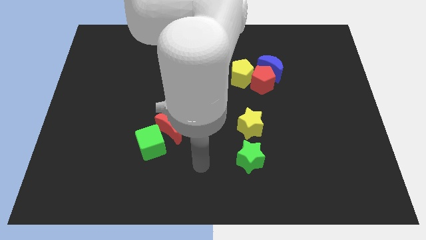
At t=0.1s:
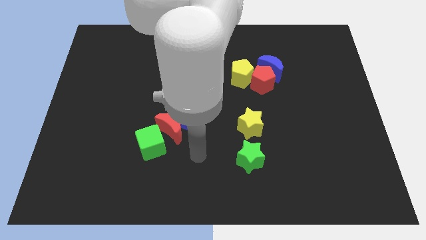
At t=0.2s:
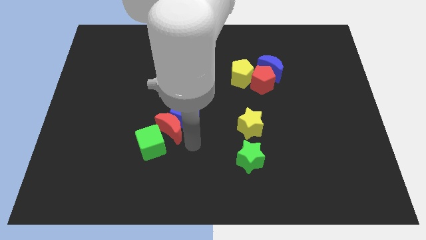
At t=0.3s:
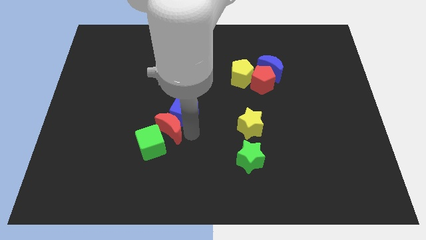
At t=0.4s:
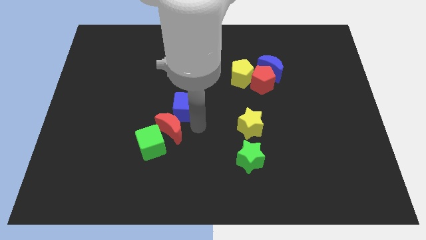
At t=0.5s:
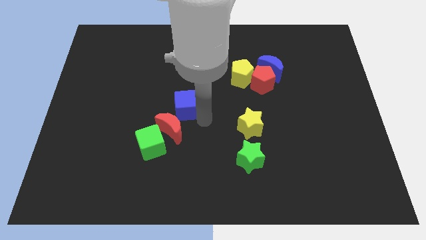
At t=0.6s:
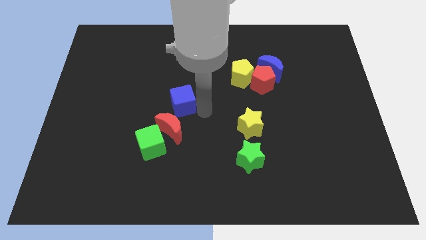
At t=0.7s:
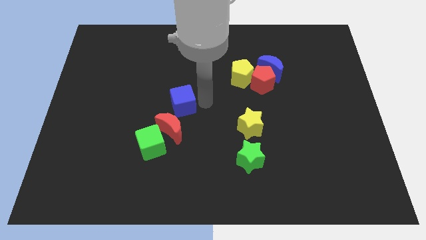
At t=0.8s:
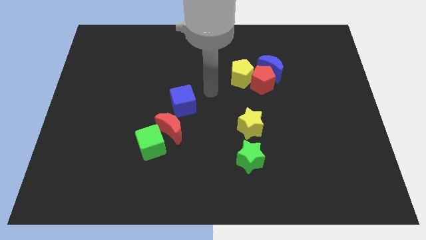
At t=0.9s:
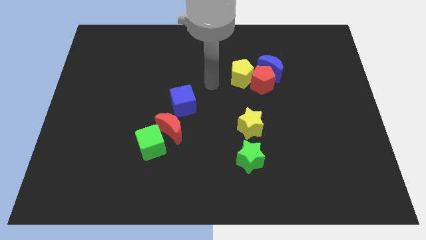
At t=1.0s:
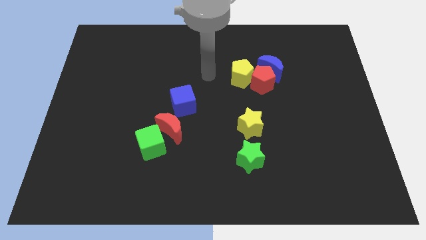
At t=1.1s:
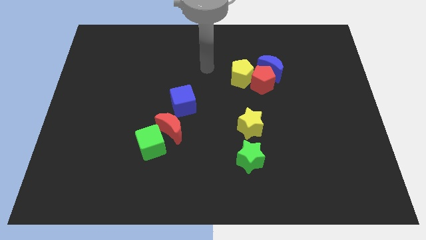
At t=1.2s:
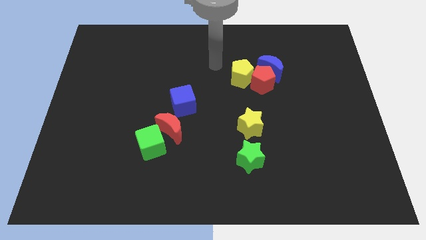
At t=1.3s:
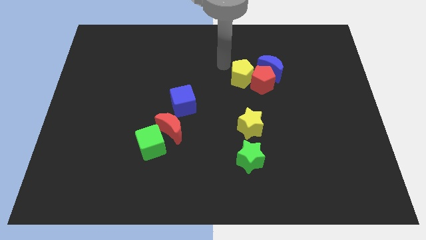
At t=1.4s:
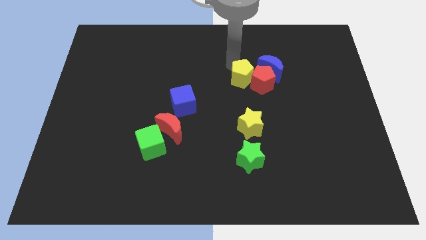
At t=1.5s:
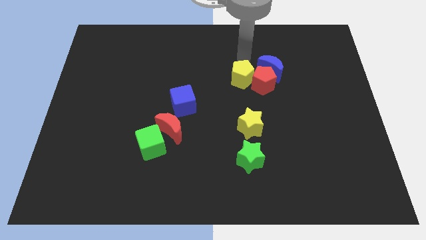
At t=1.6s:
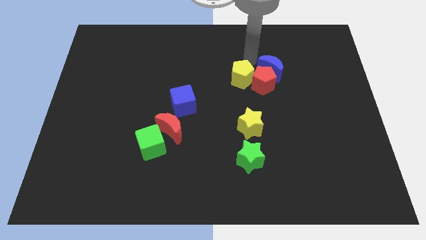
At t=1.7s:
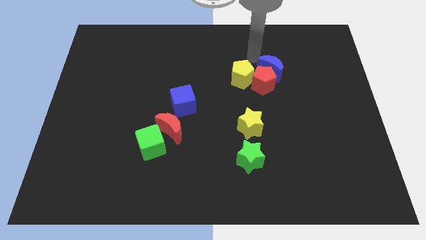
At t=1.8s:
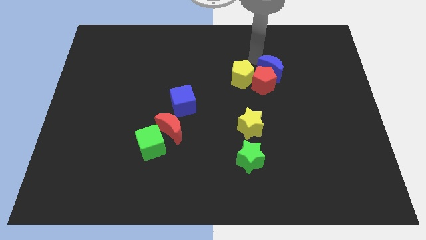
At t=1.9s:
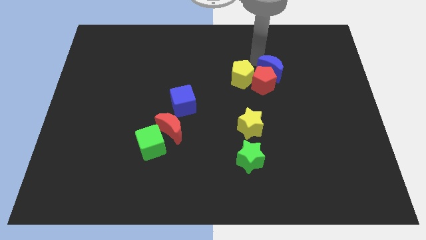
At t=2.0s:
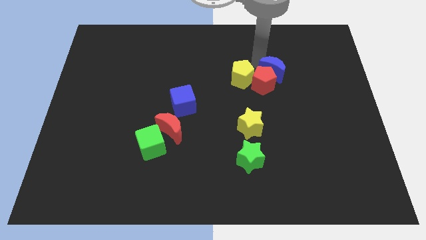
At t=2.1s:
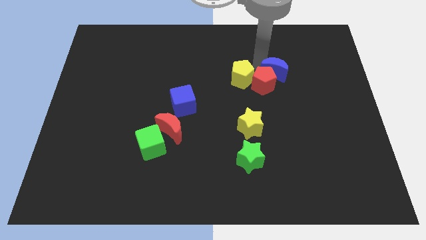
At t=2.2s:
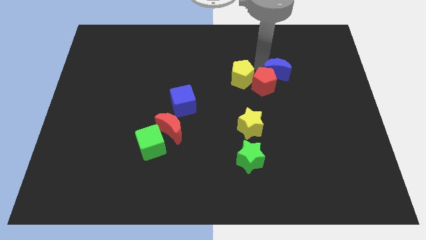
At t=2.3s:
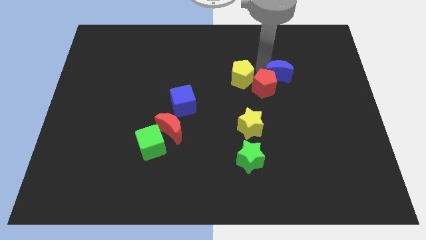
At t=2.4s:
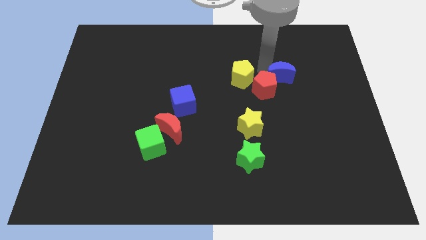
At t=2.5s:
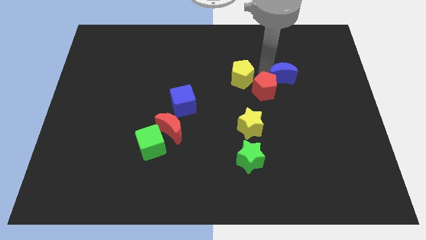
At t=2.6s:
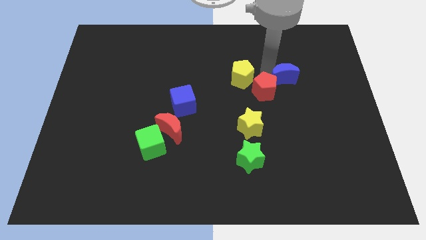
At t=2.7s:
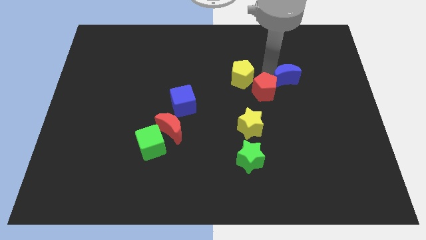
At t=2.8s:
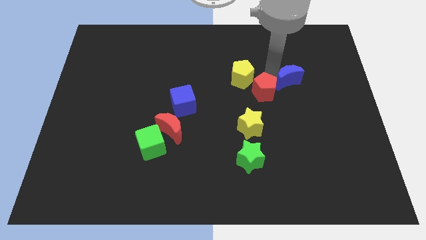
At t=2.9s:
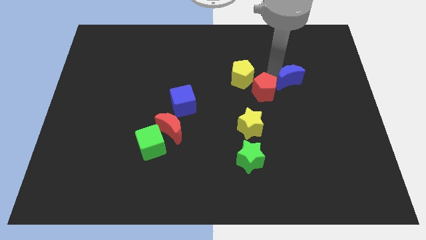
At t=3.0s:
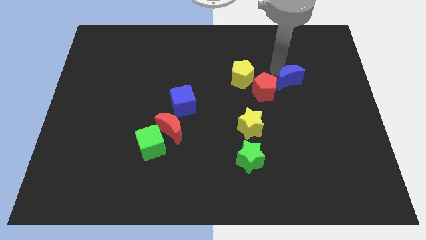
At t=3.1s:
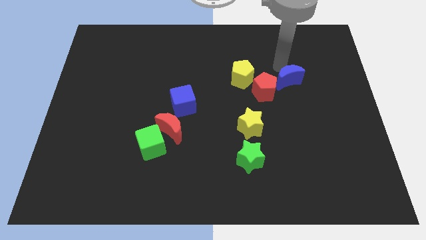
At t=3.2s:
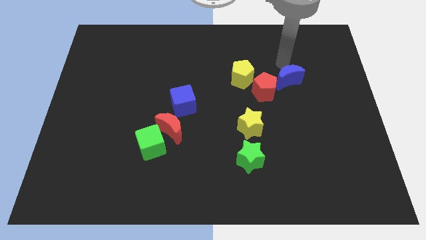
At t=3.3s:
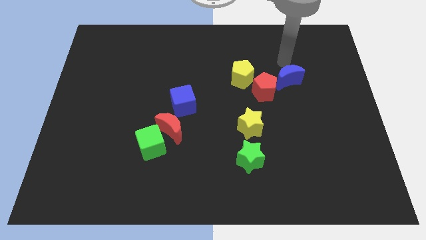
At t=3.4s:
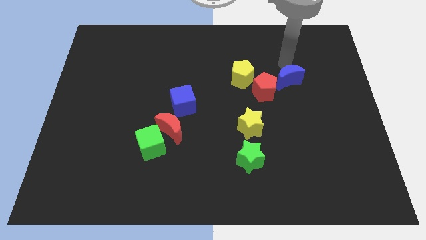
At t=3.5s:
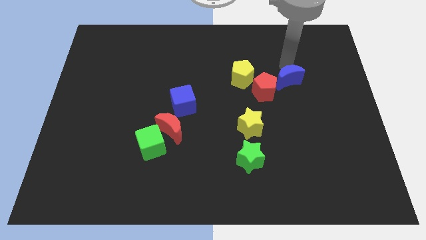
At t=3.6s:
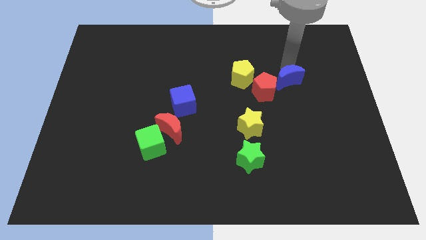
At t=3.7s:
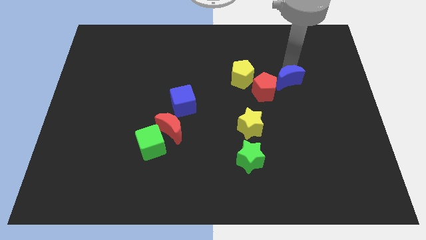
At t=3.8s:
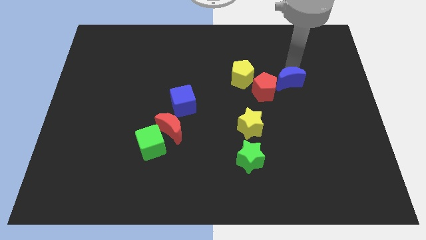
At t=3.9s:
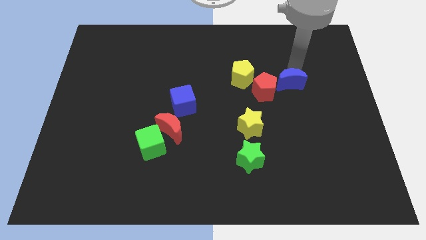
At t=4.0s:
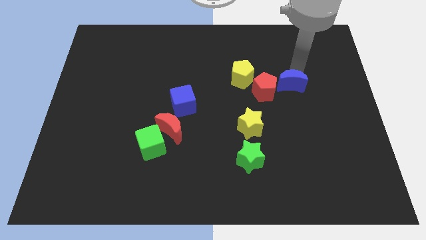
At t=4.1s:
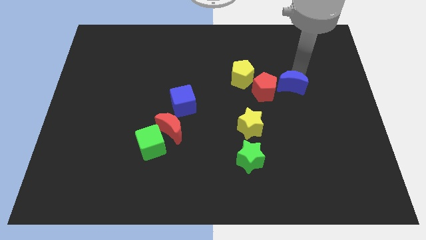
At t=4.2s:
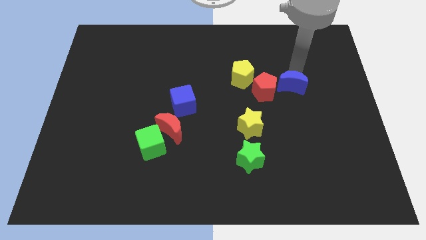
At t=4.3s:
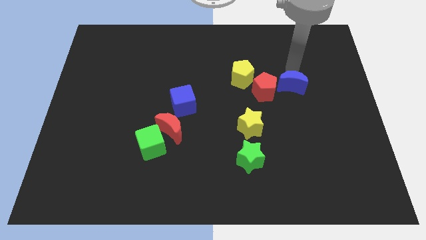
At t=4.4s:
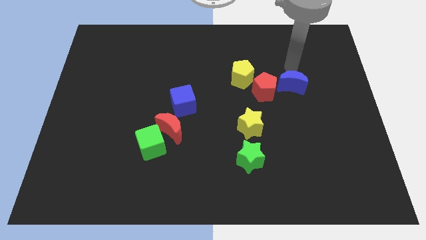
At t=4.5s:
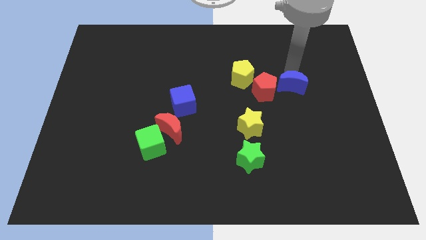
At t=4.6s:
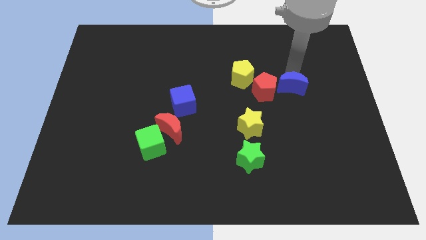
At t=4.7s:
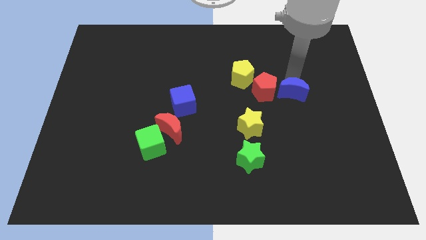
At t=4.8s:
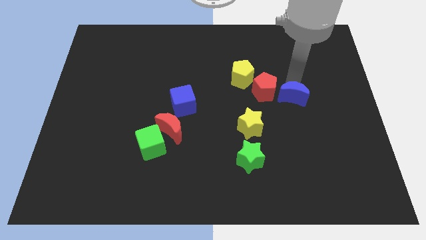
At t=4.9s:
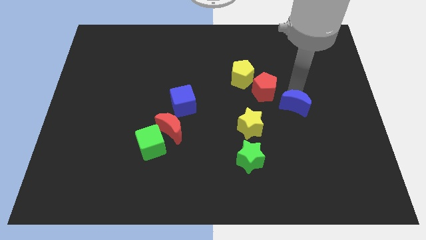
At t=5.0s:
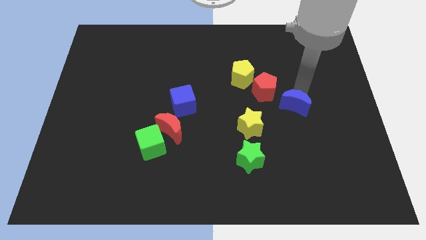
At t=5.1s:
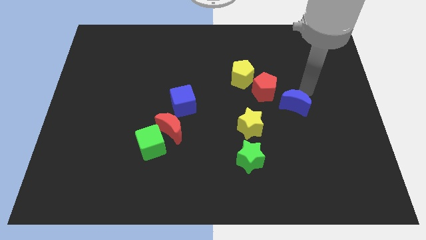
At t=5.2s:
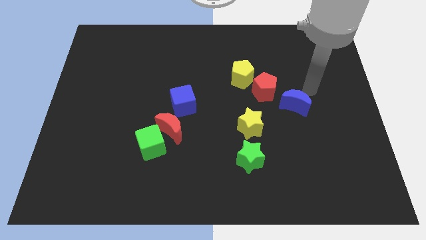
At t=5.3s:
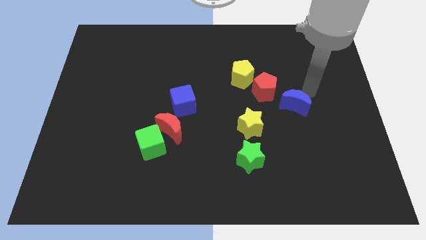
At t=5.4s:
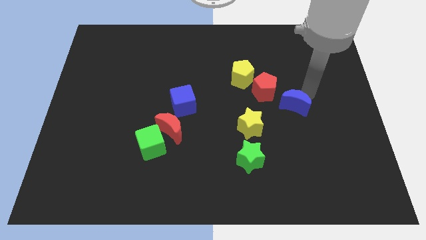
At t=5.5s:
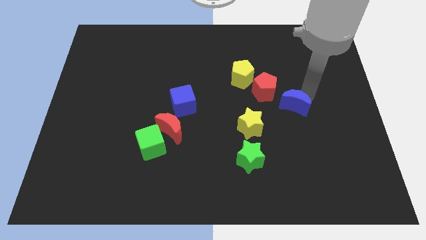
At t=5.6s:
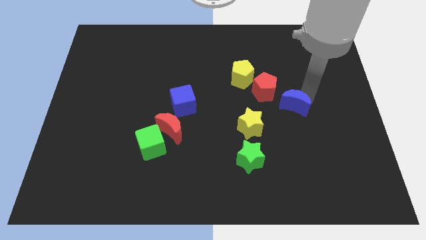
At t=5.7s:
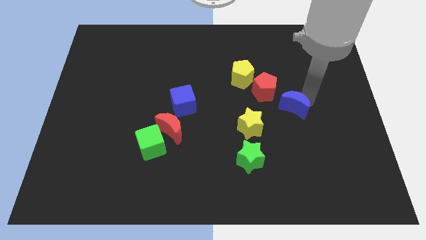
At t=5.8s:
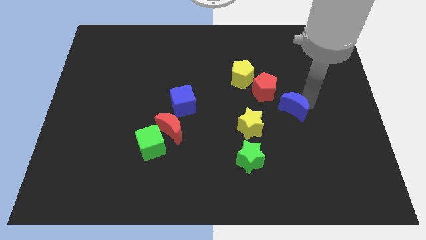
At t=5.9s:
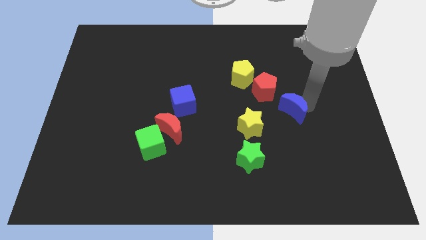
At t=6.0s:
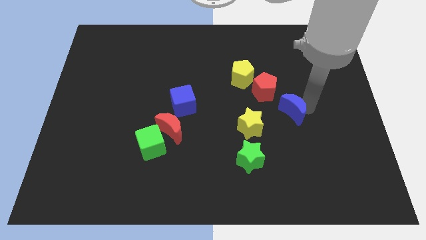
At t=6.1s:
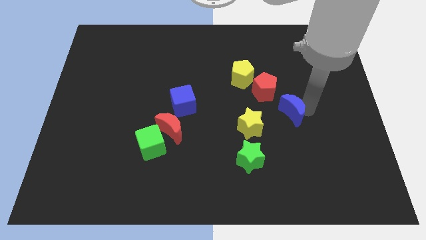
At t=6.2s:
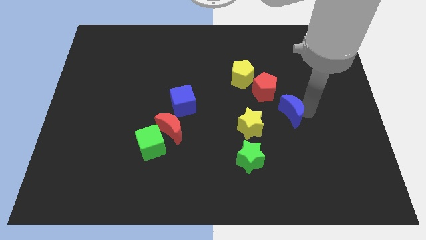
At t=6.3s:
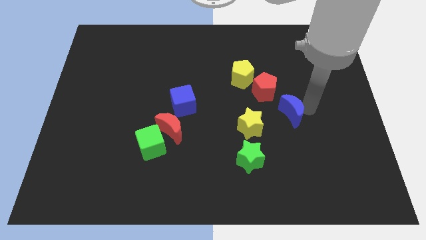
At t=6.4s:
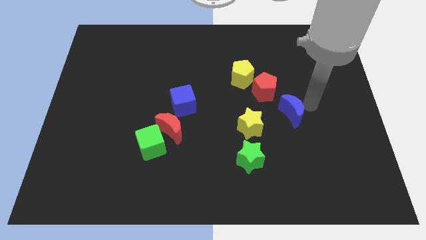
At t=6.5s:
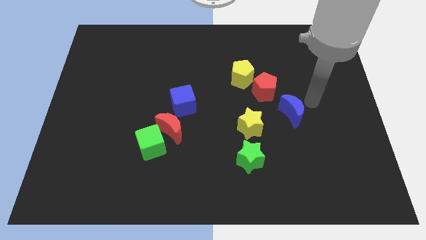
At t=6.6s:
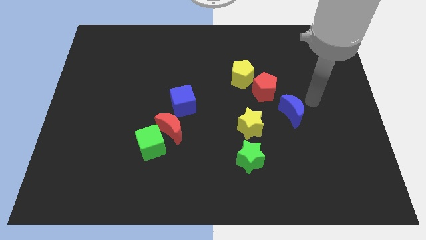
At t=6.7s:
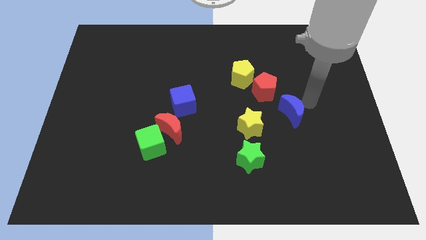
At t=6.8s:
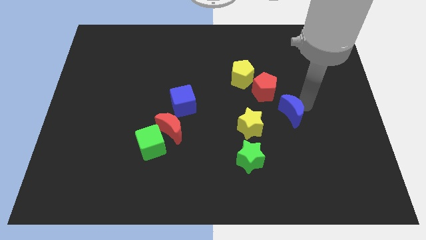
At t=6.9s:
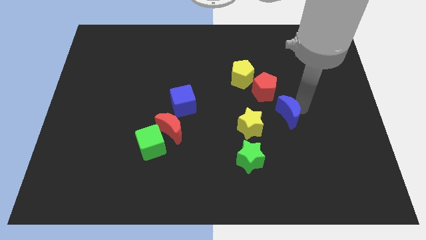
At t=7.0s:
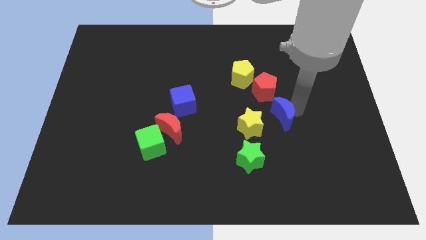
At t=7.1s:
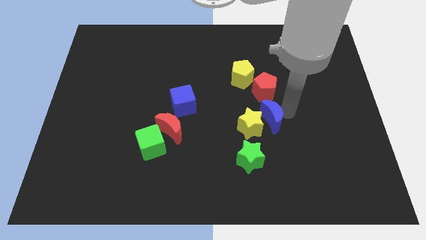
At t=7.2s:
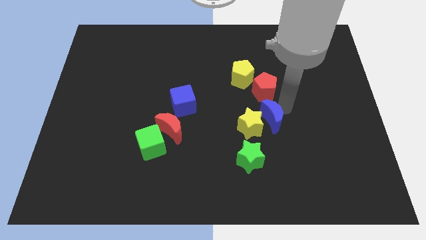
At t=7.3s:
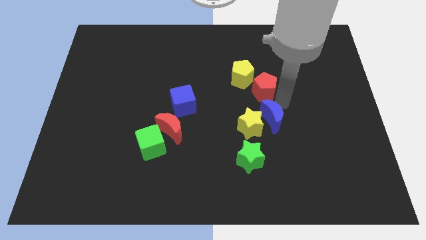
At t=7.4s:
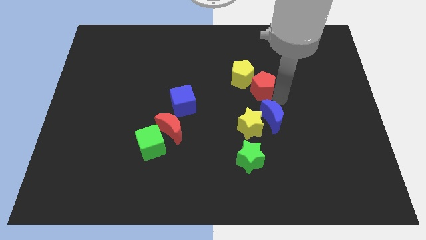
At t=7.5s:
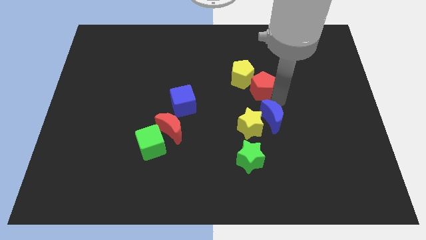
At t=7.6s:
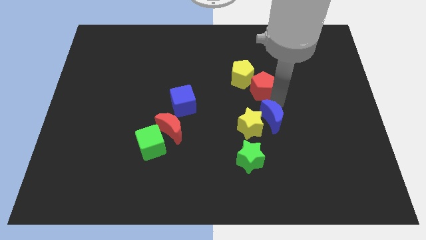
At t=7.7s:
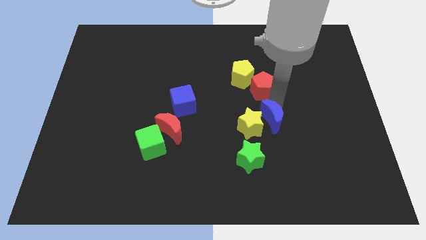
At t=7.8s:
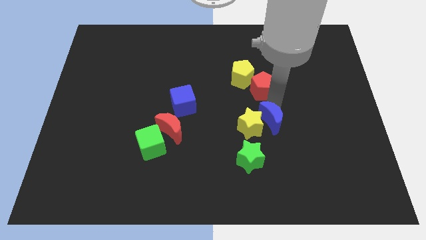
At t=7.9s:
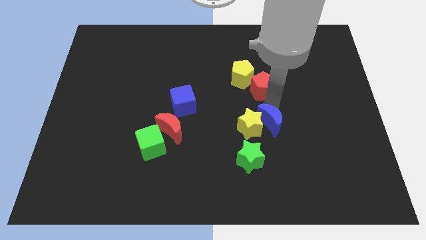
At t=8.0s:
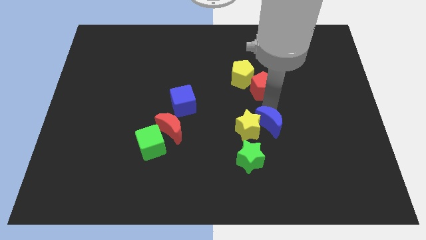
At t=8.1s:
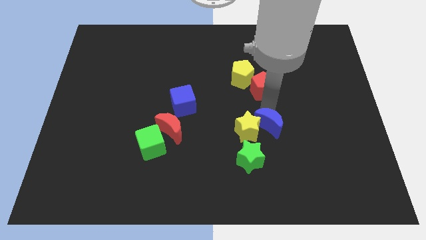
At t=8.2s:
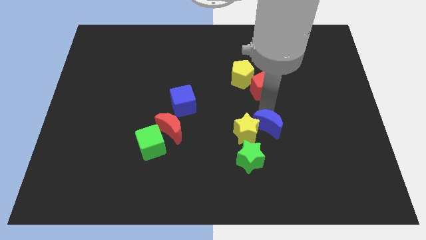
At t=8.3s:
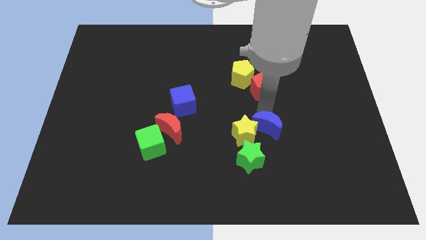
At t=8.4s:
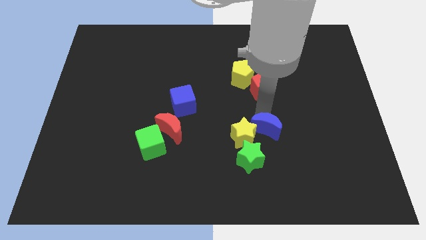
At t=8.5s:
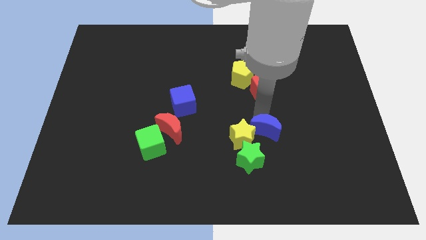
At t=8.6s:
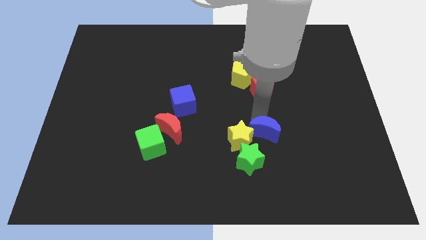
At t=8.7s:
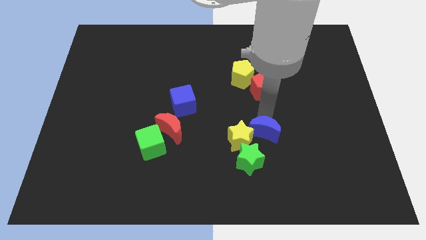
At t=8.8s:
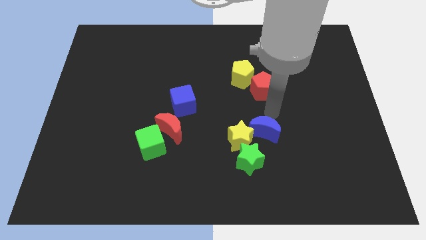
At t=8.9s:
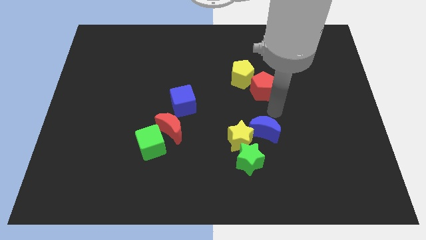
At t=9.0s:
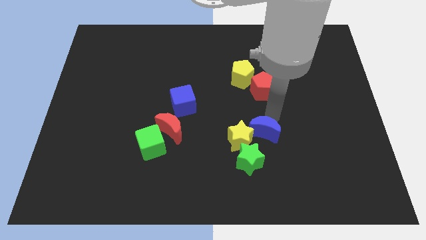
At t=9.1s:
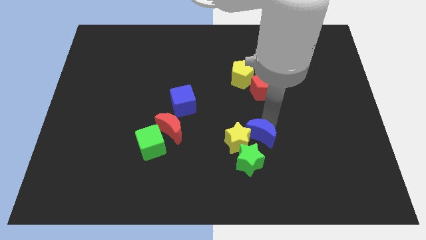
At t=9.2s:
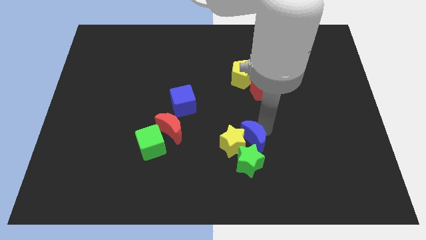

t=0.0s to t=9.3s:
put the blue moon next to the green star
